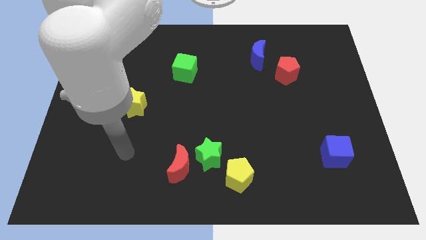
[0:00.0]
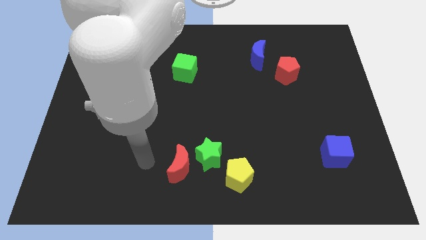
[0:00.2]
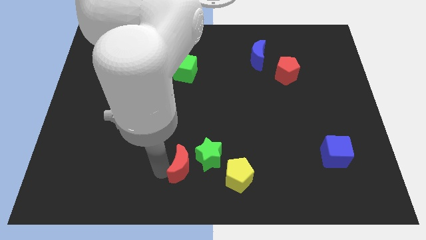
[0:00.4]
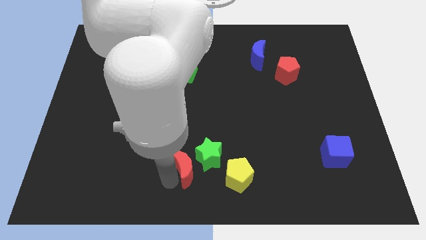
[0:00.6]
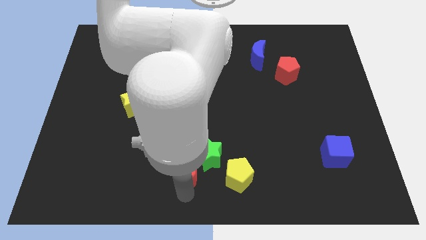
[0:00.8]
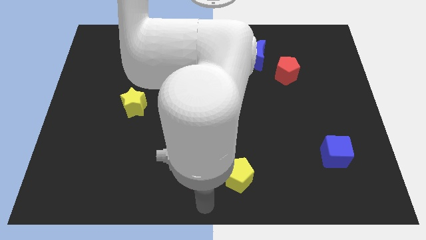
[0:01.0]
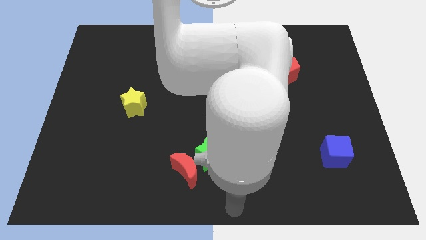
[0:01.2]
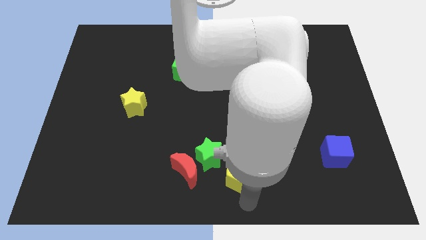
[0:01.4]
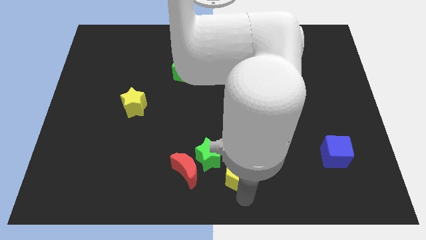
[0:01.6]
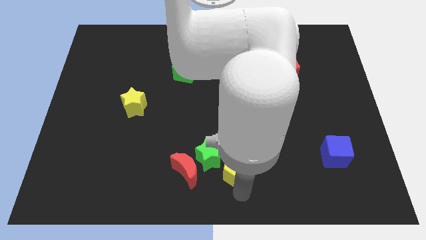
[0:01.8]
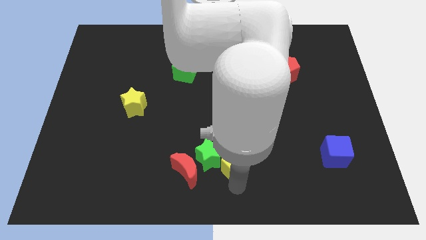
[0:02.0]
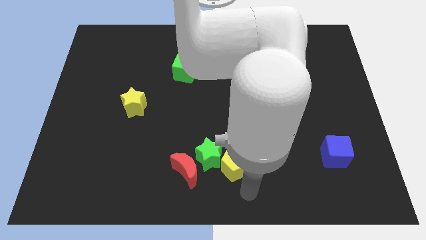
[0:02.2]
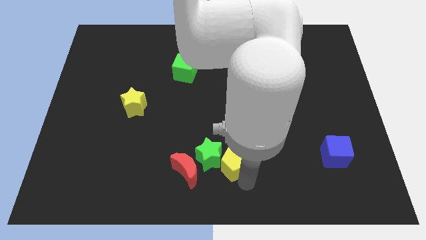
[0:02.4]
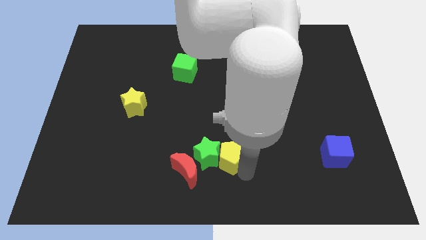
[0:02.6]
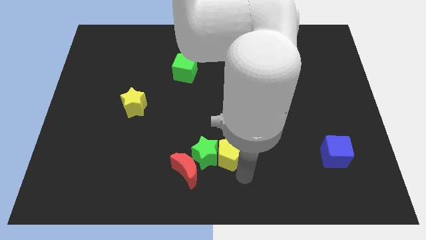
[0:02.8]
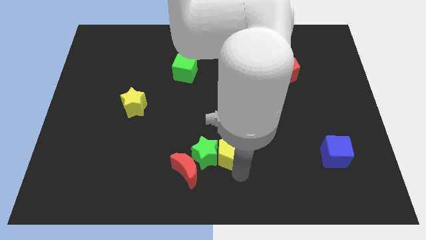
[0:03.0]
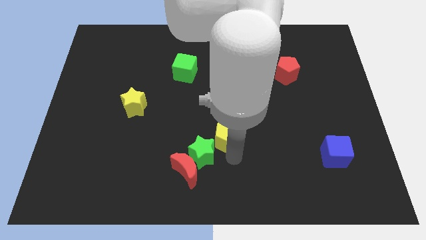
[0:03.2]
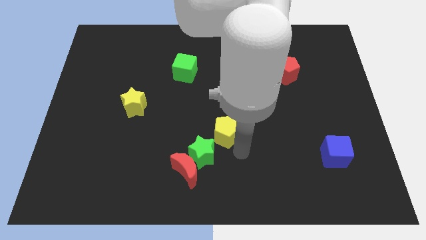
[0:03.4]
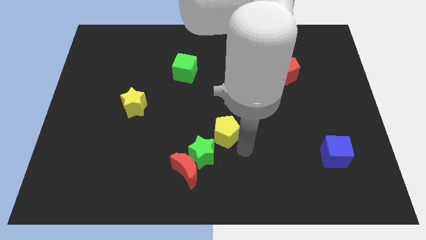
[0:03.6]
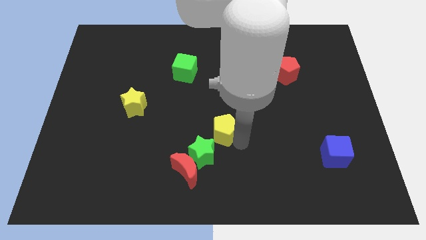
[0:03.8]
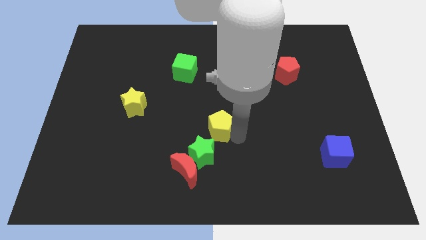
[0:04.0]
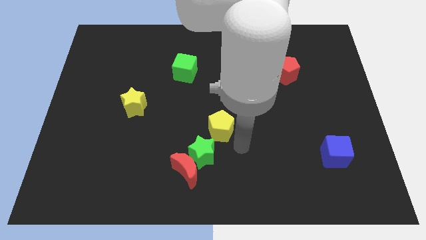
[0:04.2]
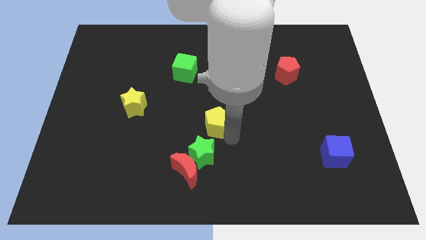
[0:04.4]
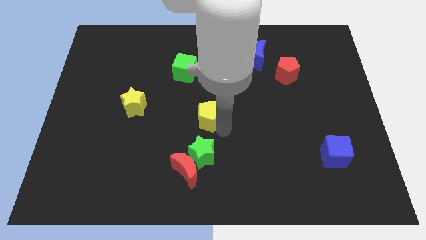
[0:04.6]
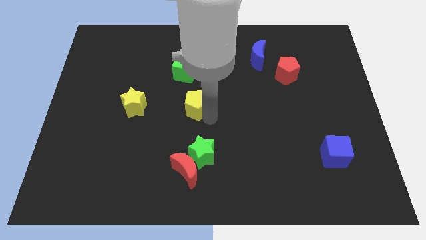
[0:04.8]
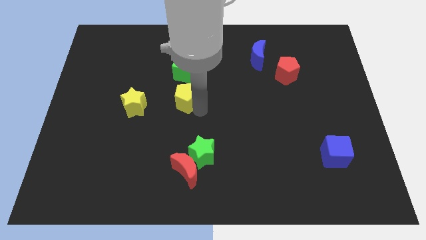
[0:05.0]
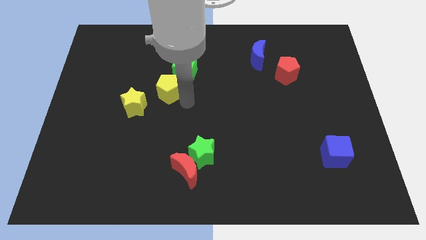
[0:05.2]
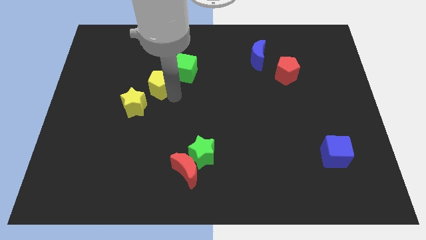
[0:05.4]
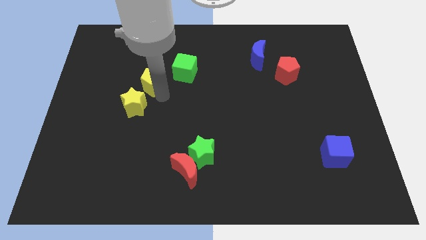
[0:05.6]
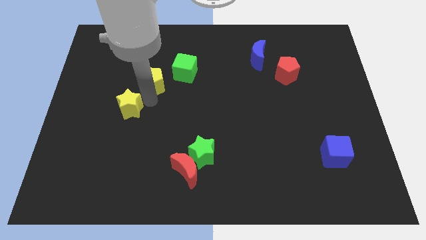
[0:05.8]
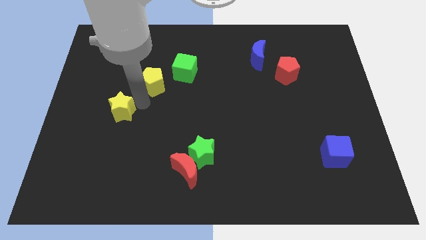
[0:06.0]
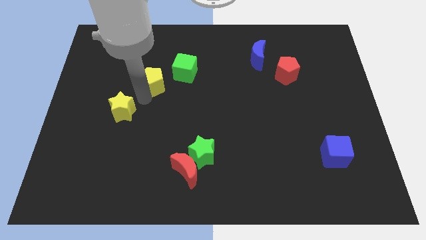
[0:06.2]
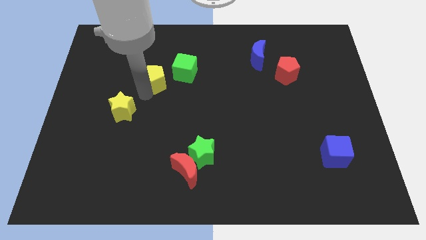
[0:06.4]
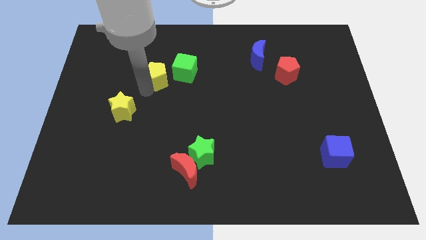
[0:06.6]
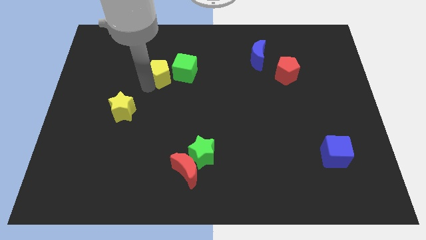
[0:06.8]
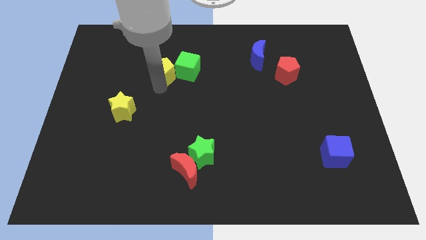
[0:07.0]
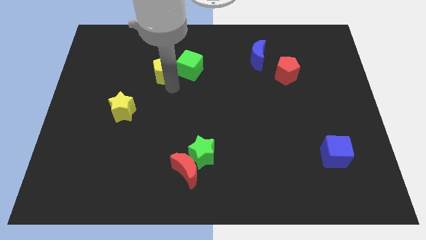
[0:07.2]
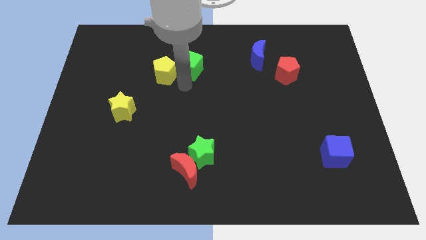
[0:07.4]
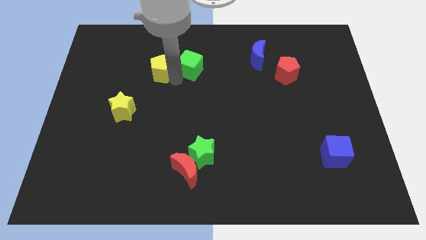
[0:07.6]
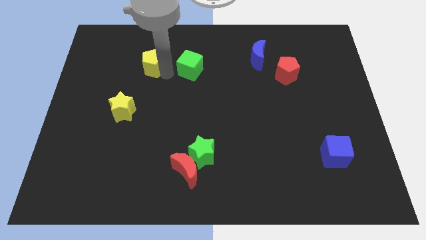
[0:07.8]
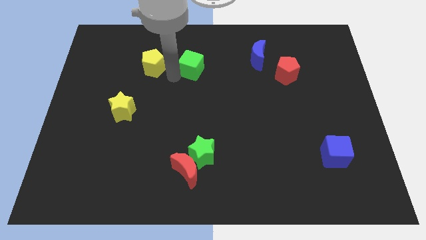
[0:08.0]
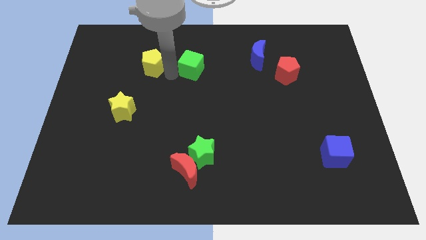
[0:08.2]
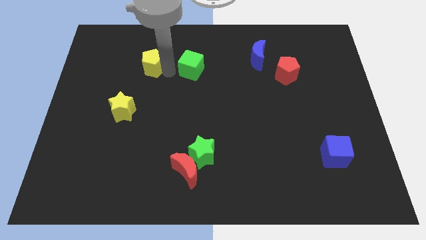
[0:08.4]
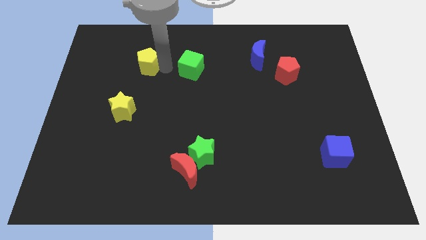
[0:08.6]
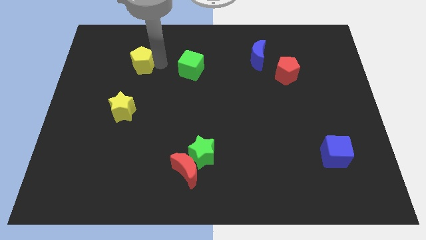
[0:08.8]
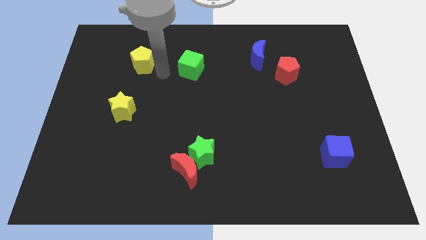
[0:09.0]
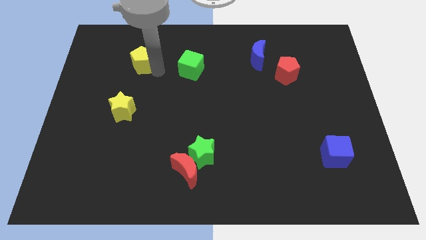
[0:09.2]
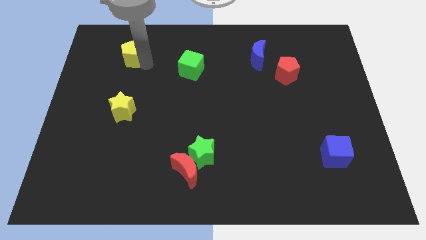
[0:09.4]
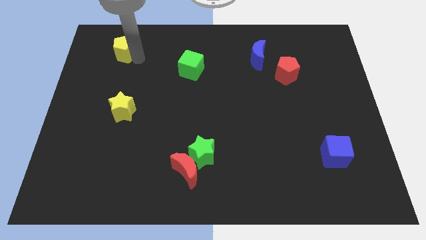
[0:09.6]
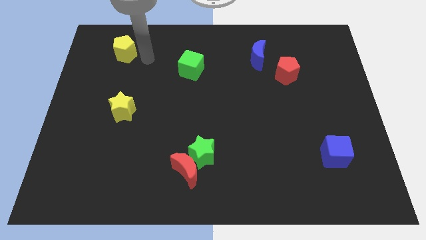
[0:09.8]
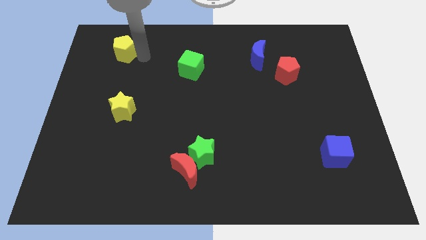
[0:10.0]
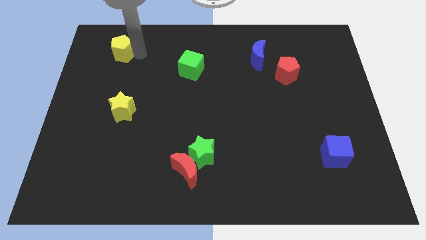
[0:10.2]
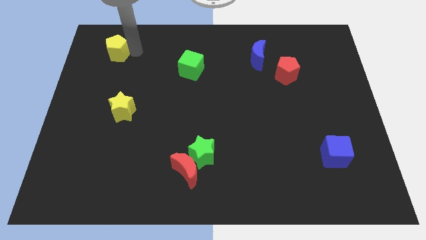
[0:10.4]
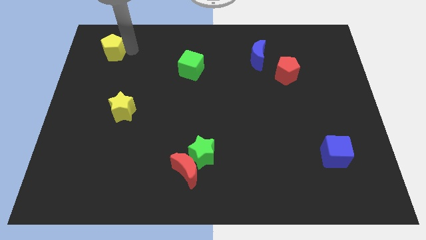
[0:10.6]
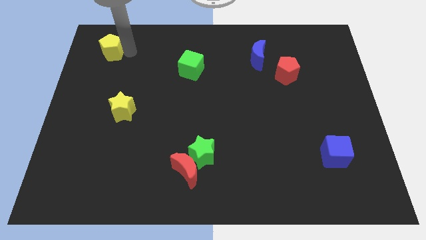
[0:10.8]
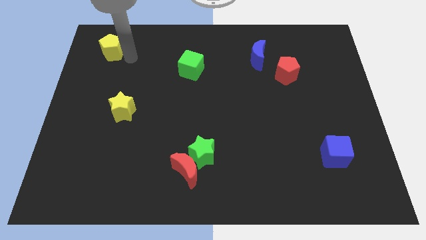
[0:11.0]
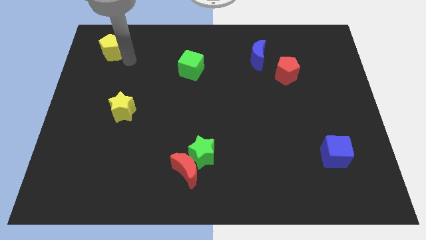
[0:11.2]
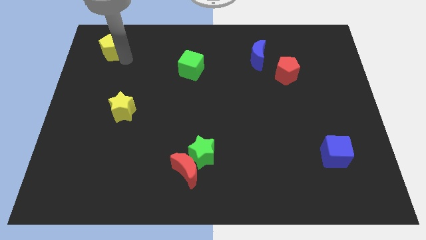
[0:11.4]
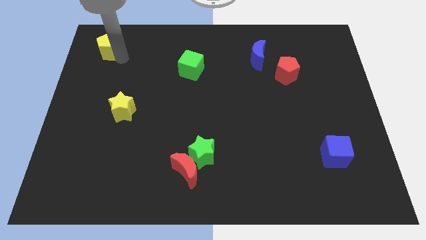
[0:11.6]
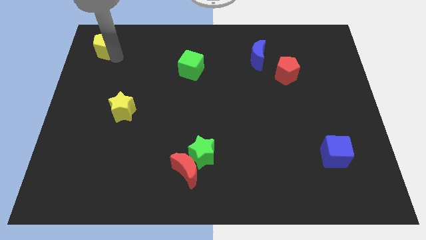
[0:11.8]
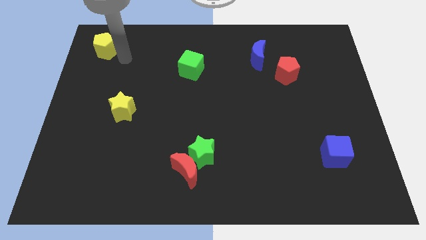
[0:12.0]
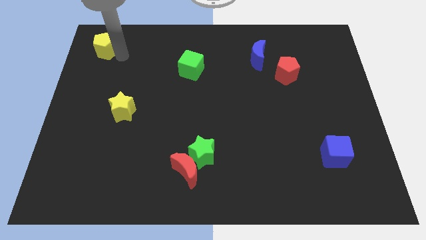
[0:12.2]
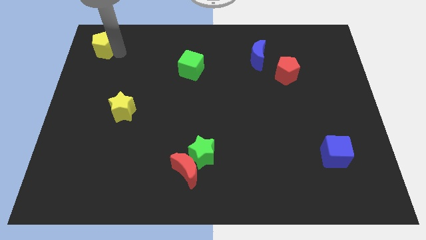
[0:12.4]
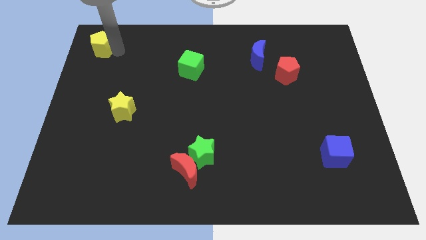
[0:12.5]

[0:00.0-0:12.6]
move the yellow pentagon to the top left corner
